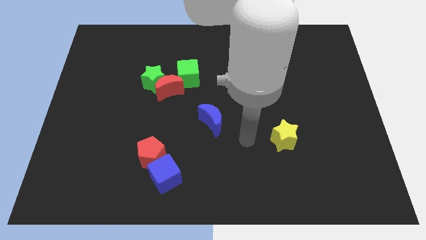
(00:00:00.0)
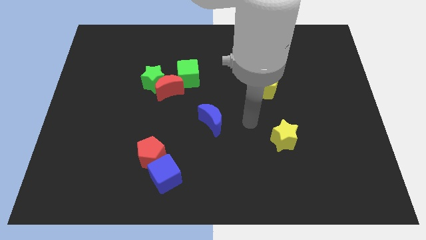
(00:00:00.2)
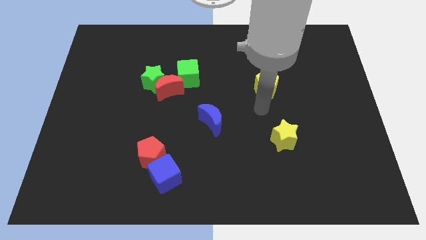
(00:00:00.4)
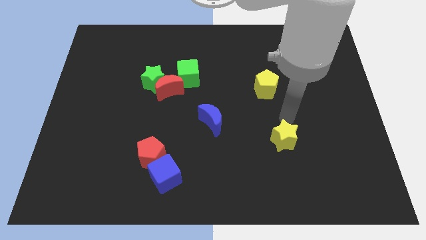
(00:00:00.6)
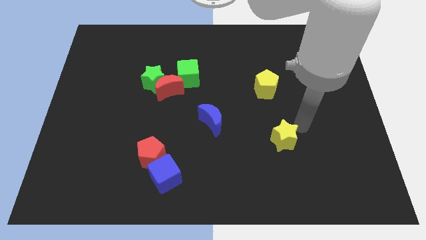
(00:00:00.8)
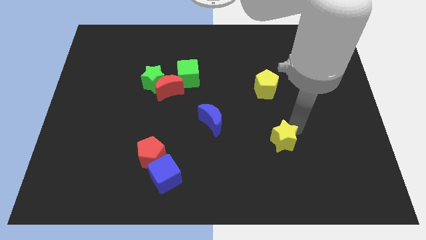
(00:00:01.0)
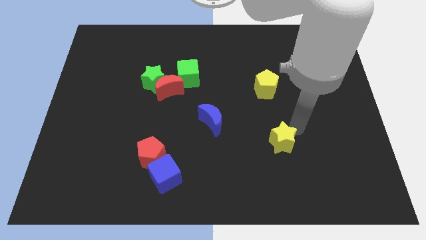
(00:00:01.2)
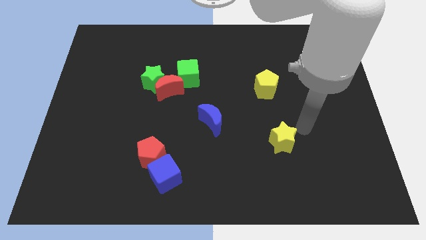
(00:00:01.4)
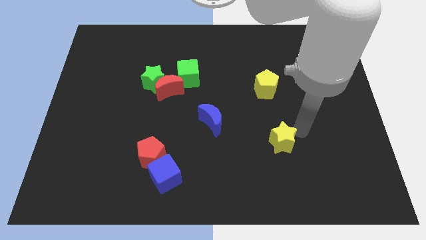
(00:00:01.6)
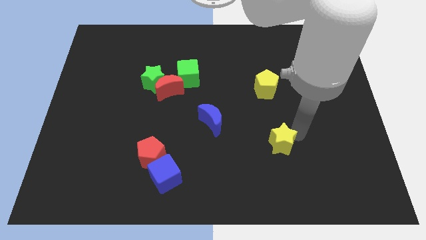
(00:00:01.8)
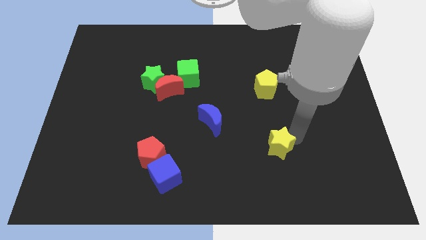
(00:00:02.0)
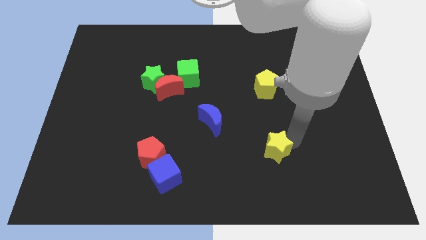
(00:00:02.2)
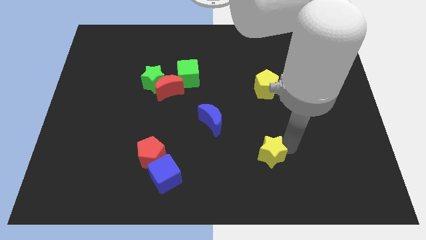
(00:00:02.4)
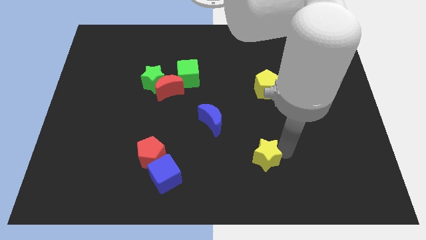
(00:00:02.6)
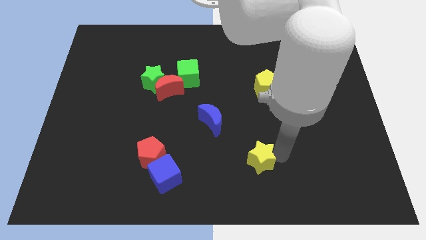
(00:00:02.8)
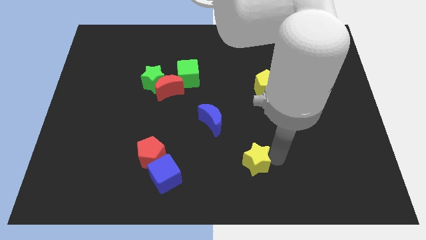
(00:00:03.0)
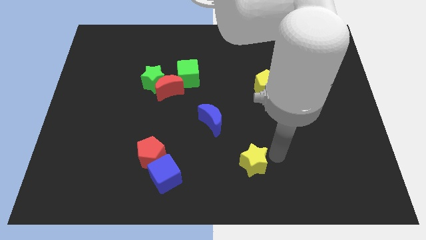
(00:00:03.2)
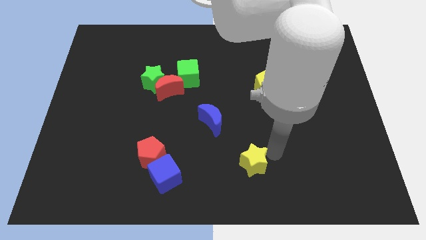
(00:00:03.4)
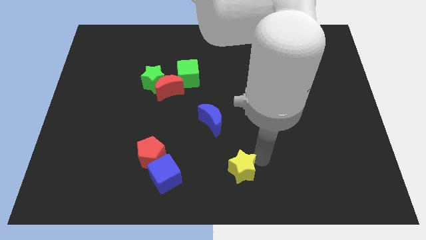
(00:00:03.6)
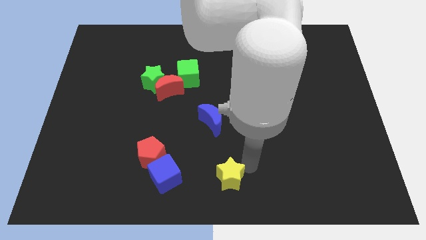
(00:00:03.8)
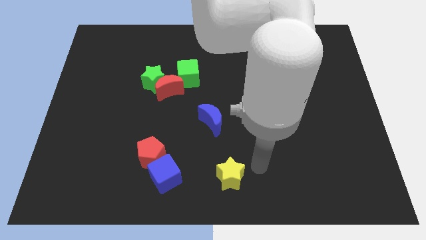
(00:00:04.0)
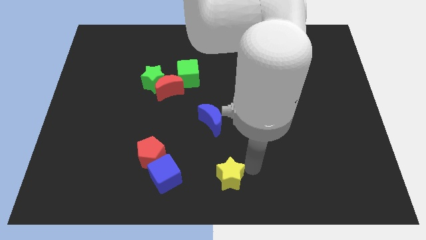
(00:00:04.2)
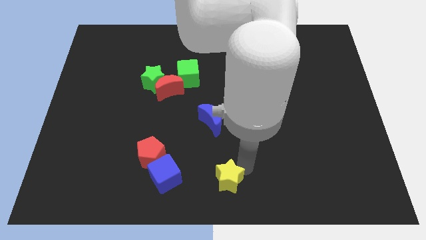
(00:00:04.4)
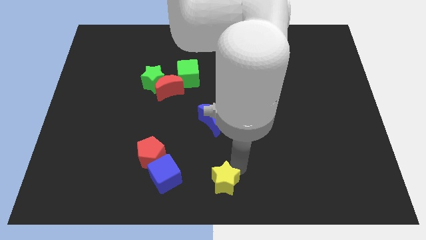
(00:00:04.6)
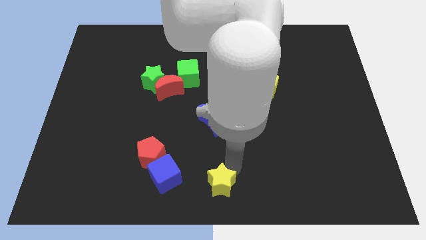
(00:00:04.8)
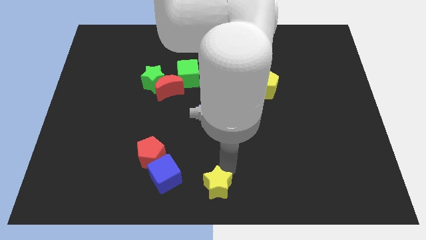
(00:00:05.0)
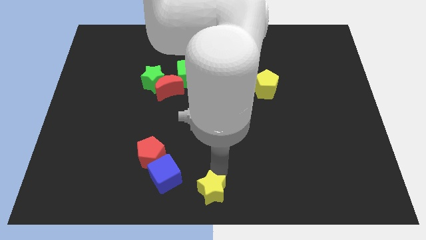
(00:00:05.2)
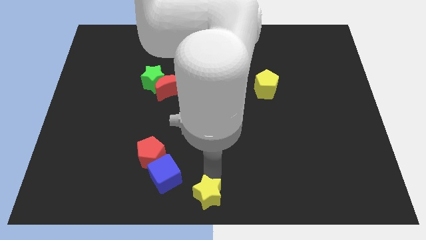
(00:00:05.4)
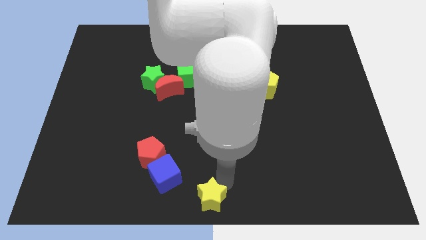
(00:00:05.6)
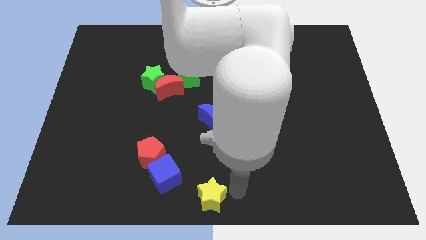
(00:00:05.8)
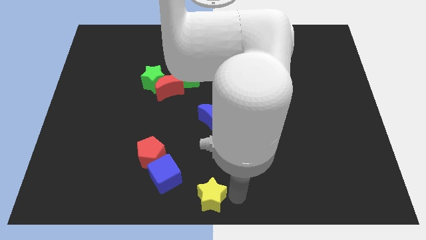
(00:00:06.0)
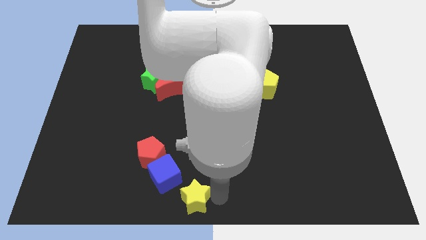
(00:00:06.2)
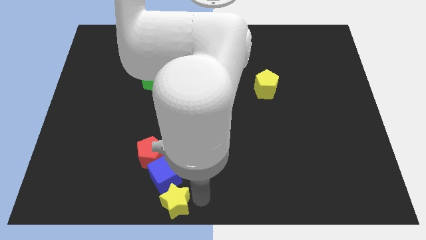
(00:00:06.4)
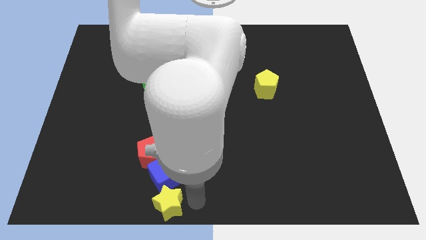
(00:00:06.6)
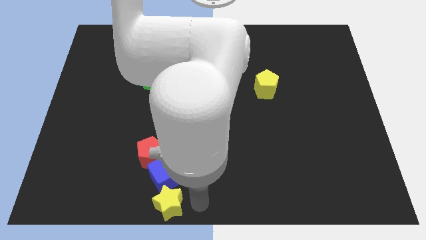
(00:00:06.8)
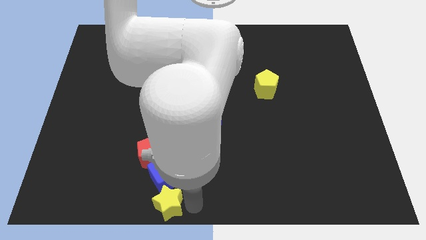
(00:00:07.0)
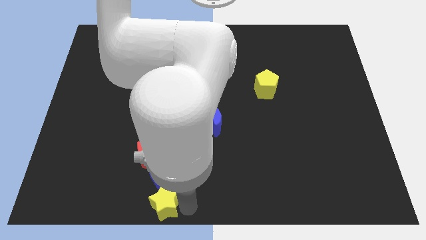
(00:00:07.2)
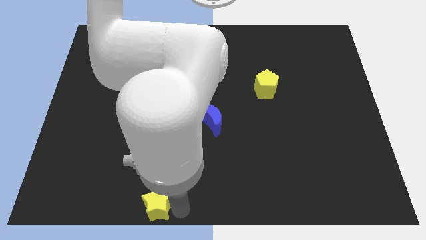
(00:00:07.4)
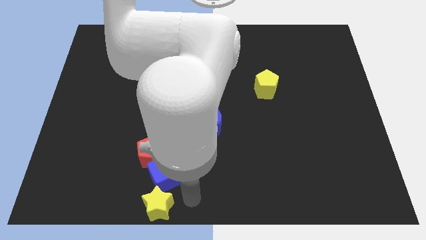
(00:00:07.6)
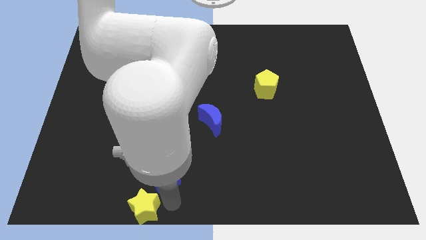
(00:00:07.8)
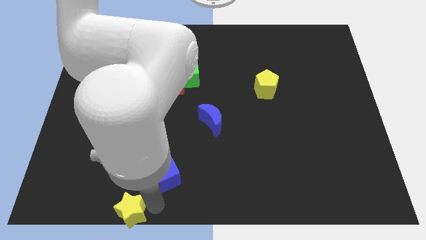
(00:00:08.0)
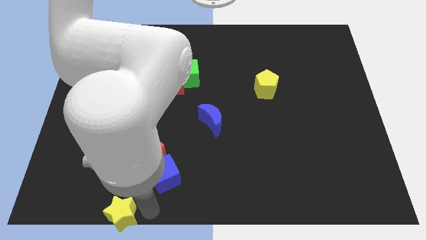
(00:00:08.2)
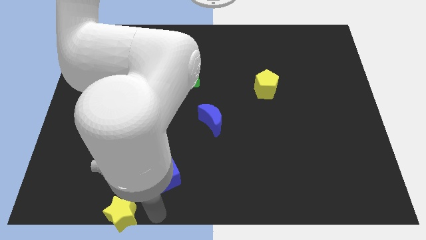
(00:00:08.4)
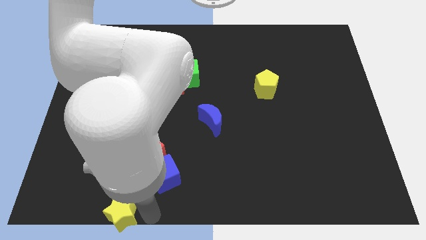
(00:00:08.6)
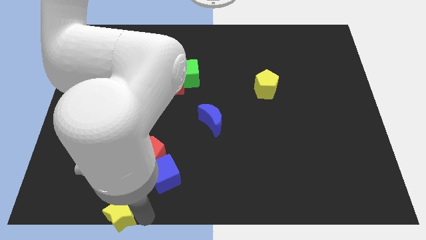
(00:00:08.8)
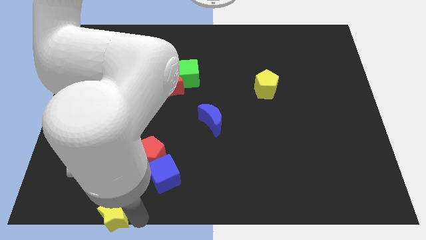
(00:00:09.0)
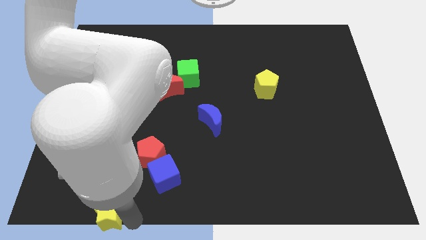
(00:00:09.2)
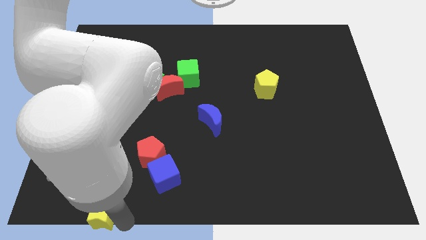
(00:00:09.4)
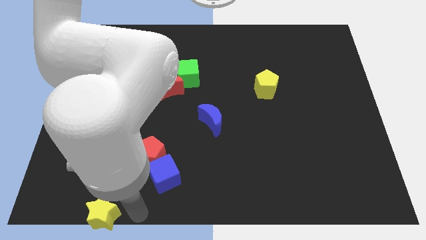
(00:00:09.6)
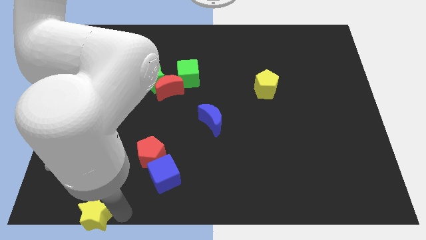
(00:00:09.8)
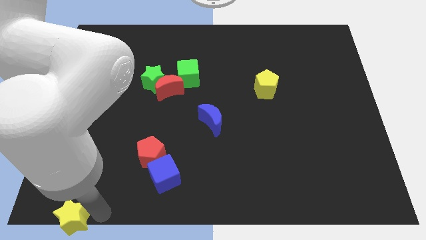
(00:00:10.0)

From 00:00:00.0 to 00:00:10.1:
slide the yellow star to the lower left corner

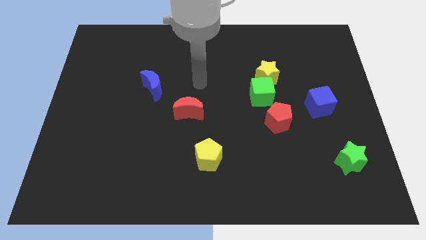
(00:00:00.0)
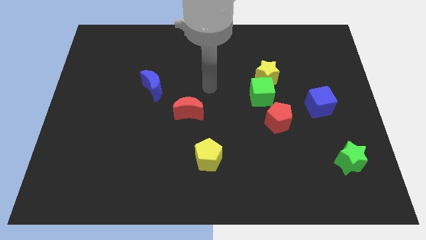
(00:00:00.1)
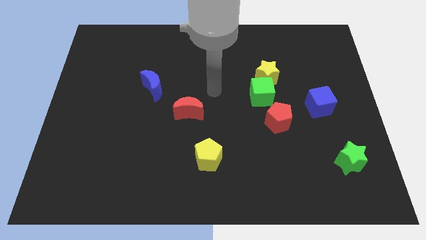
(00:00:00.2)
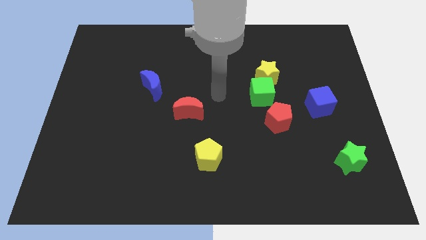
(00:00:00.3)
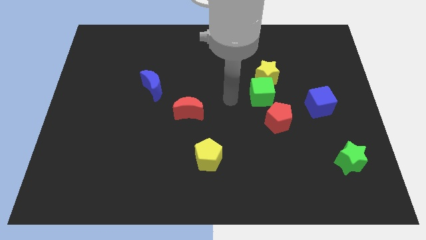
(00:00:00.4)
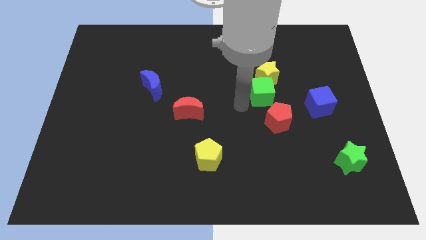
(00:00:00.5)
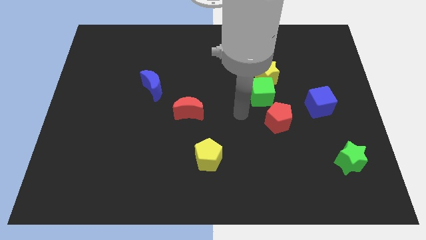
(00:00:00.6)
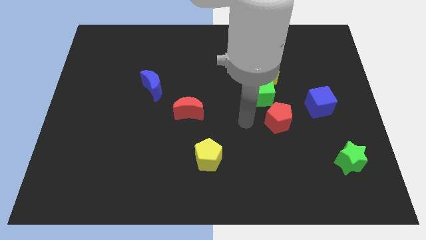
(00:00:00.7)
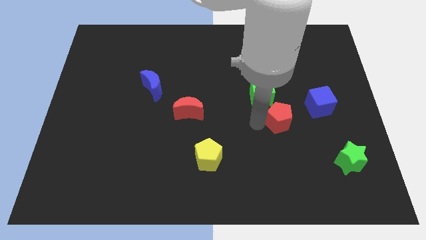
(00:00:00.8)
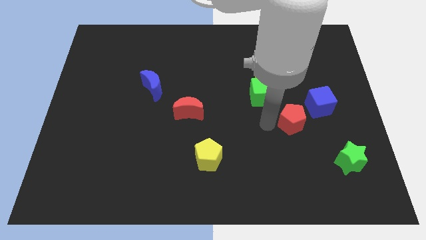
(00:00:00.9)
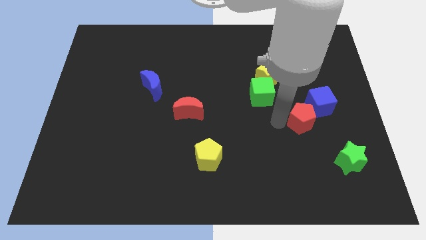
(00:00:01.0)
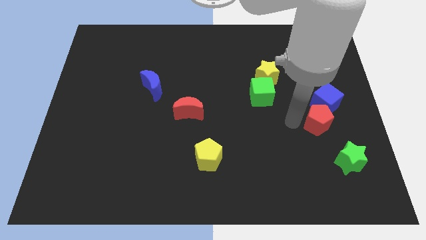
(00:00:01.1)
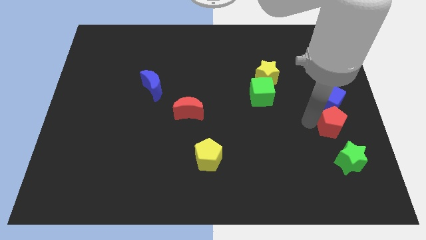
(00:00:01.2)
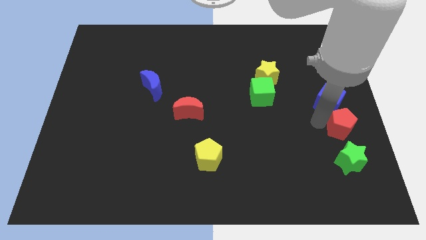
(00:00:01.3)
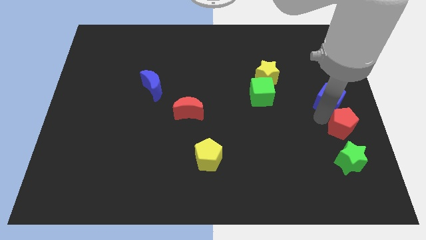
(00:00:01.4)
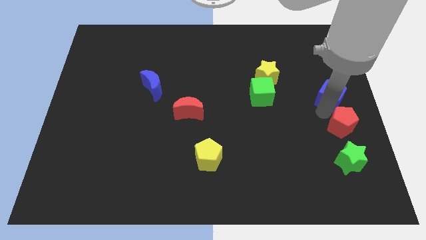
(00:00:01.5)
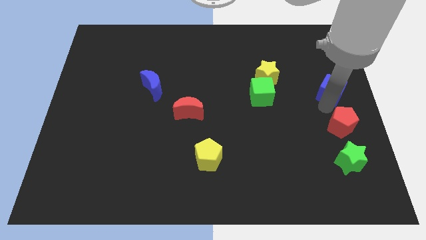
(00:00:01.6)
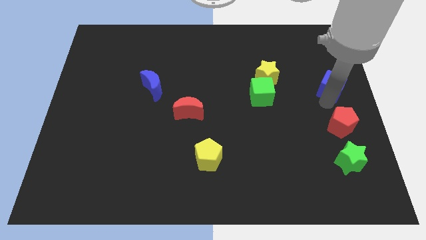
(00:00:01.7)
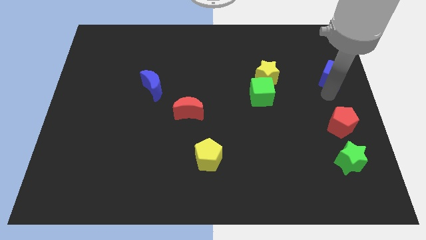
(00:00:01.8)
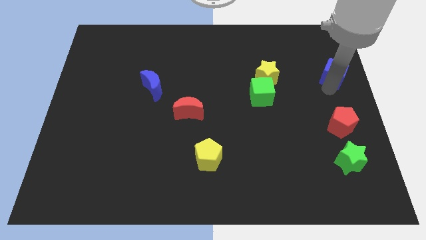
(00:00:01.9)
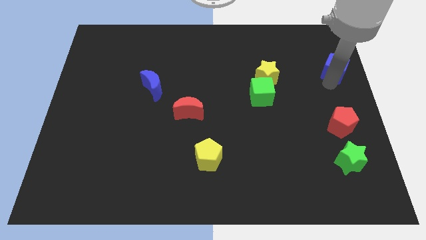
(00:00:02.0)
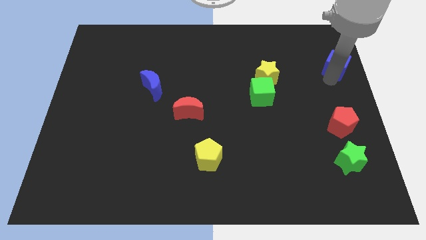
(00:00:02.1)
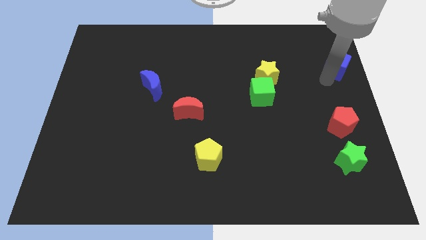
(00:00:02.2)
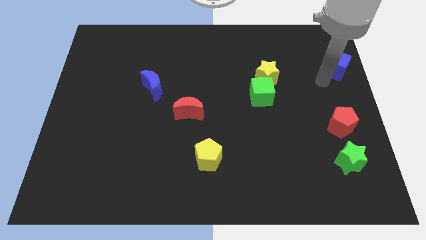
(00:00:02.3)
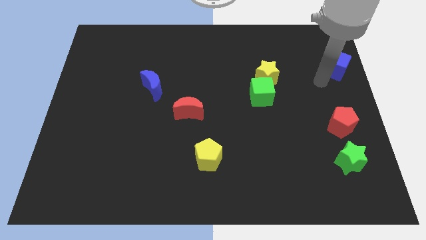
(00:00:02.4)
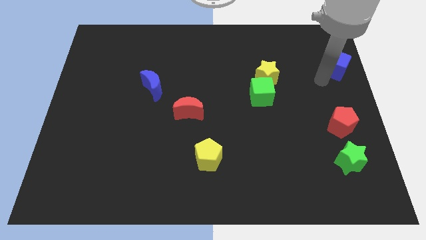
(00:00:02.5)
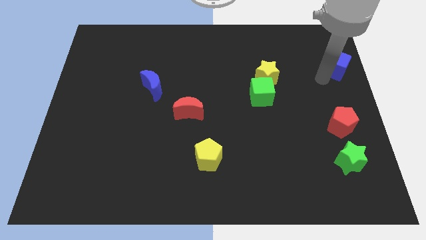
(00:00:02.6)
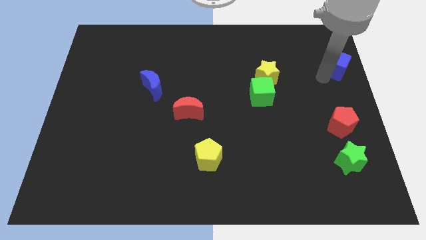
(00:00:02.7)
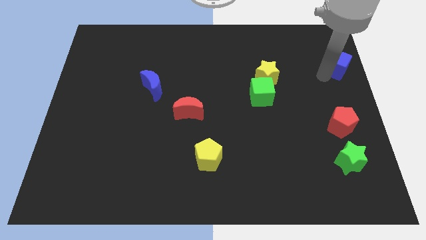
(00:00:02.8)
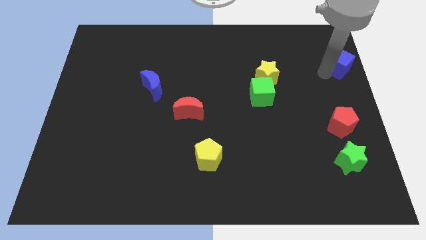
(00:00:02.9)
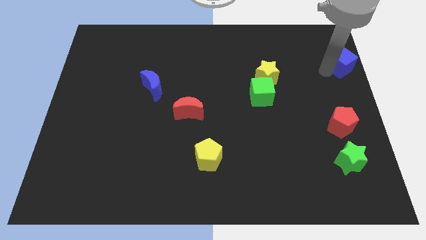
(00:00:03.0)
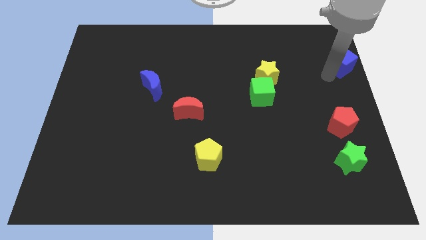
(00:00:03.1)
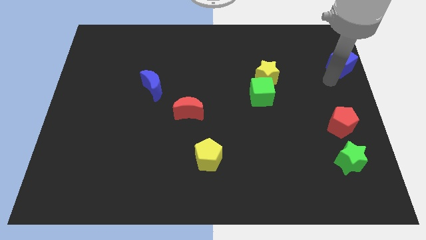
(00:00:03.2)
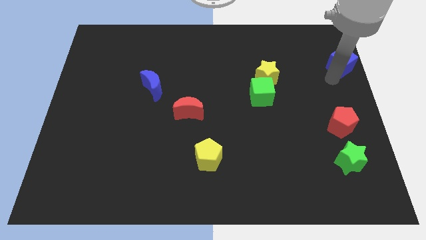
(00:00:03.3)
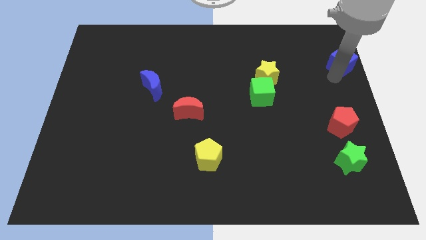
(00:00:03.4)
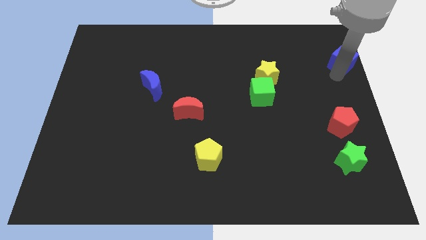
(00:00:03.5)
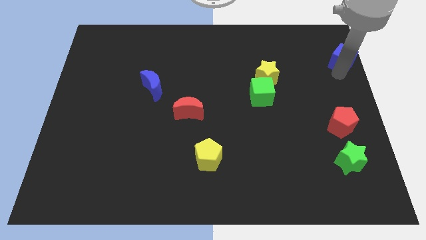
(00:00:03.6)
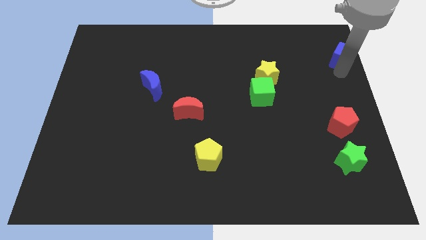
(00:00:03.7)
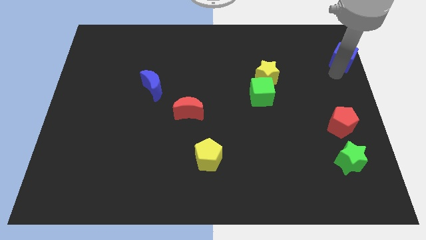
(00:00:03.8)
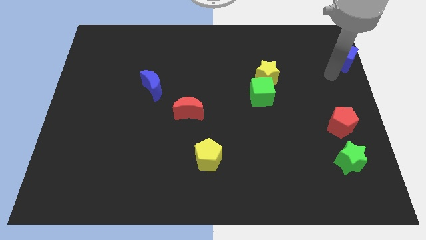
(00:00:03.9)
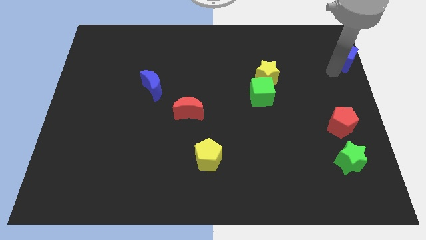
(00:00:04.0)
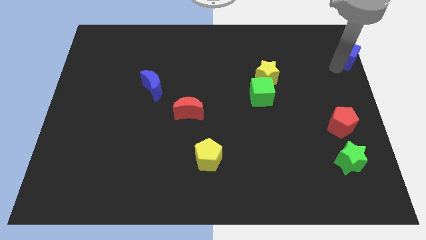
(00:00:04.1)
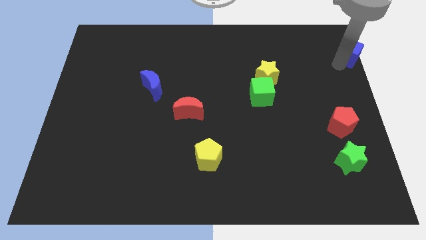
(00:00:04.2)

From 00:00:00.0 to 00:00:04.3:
put the blue cube to the top right corner
